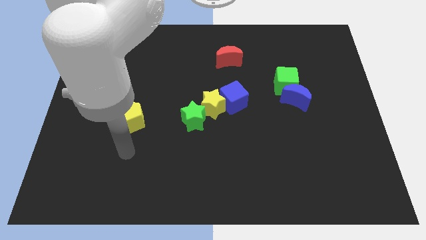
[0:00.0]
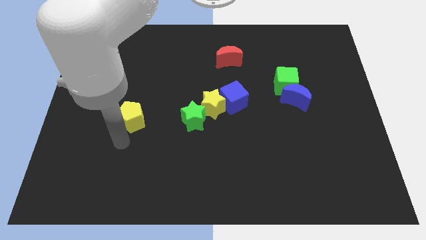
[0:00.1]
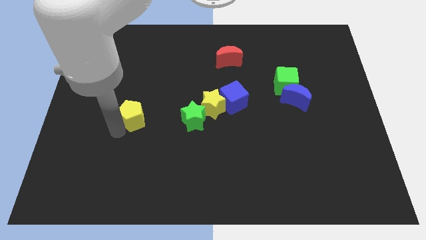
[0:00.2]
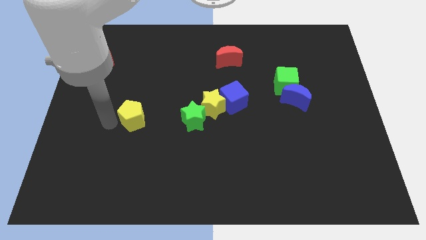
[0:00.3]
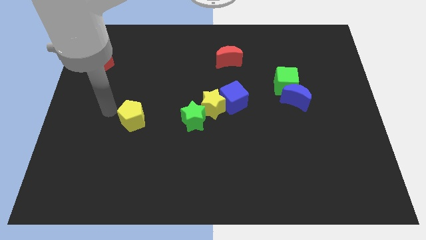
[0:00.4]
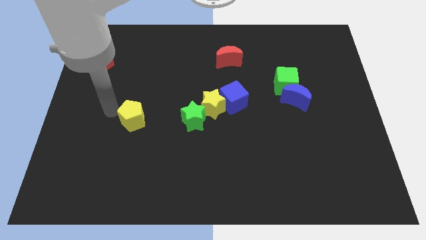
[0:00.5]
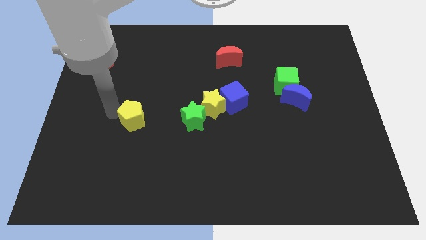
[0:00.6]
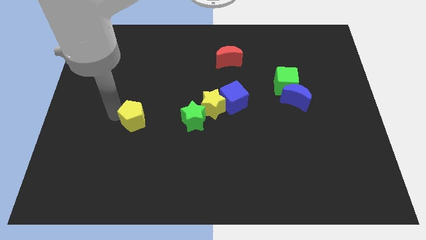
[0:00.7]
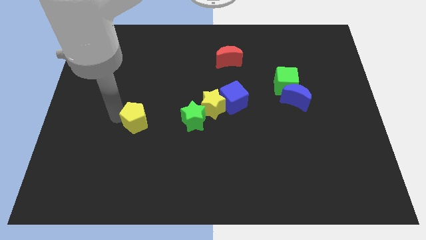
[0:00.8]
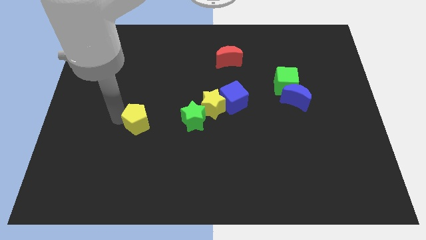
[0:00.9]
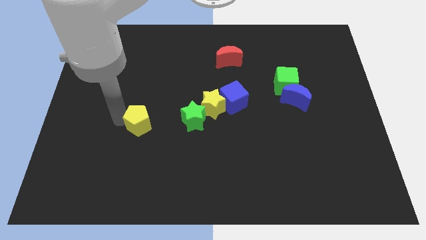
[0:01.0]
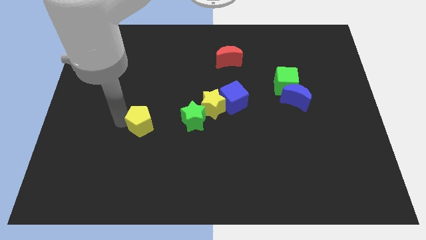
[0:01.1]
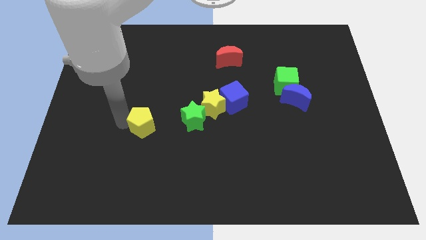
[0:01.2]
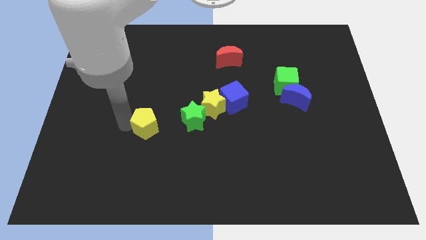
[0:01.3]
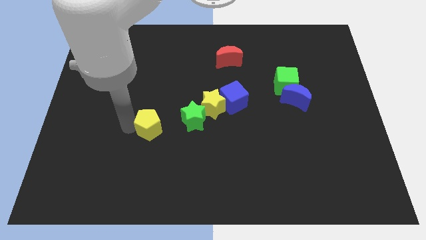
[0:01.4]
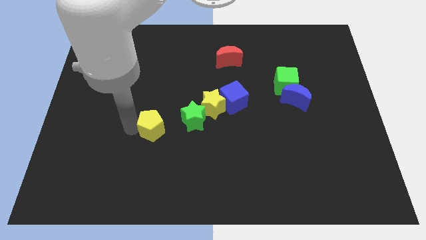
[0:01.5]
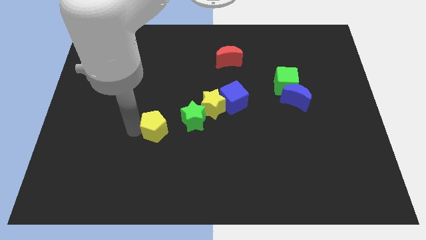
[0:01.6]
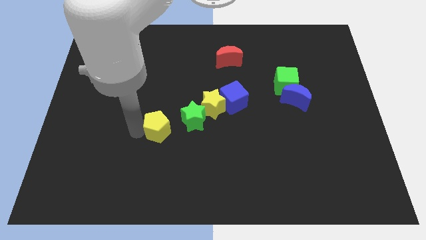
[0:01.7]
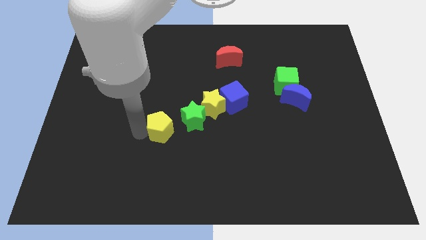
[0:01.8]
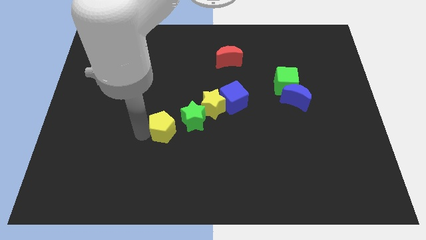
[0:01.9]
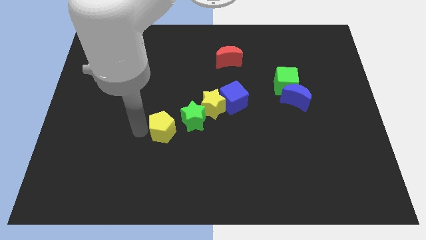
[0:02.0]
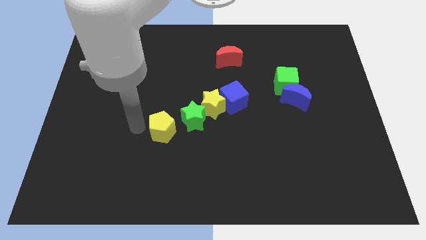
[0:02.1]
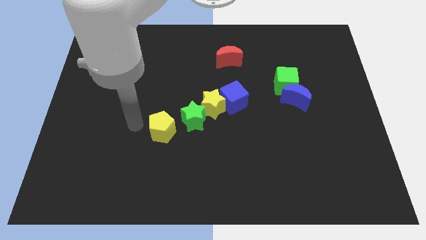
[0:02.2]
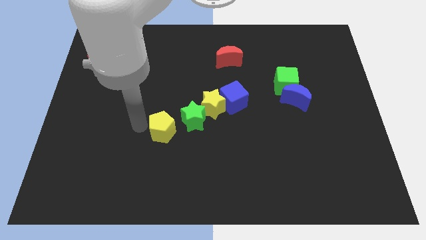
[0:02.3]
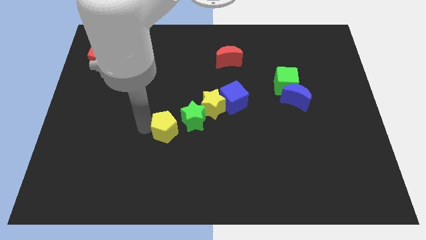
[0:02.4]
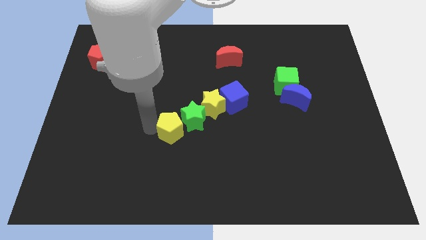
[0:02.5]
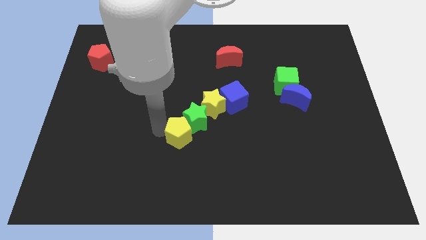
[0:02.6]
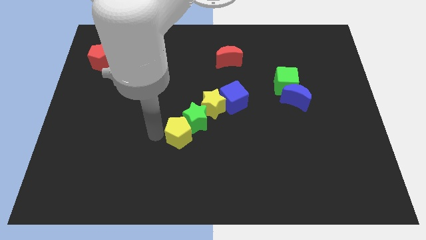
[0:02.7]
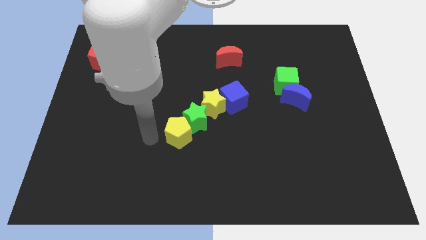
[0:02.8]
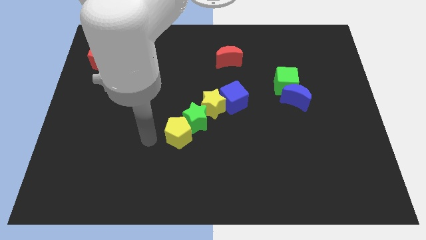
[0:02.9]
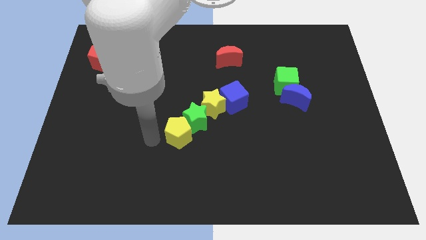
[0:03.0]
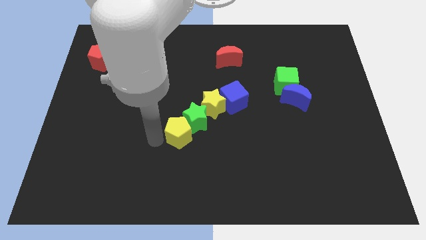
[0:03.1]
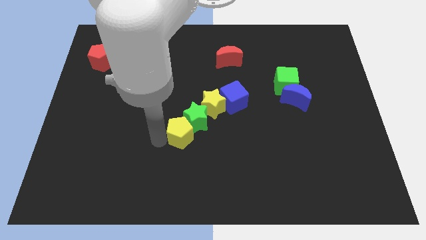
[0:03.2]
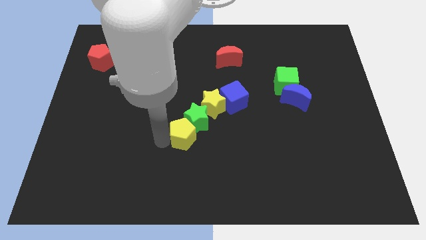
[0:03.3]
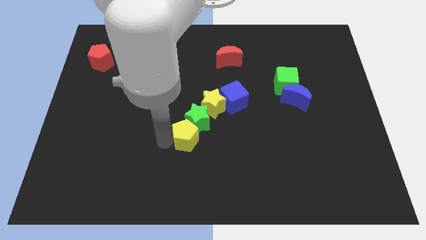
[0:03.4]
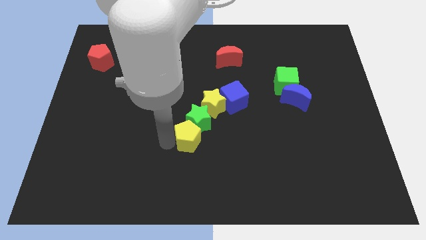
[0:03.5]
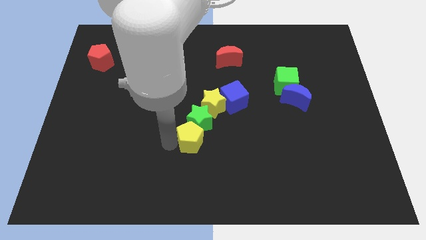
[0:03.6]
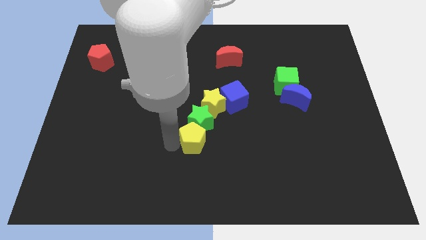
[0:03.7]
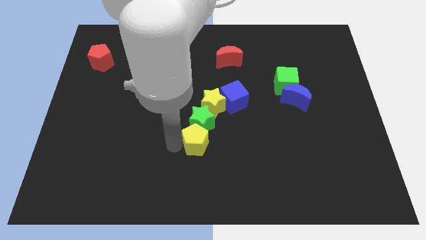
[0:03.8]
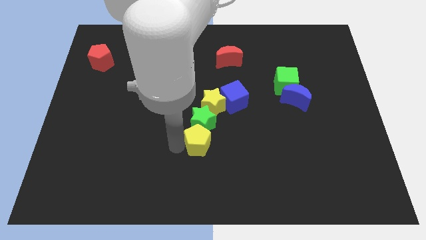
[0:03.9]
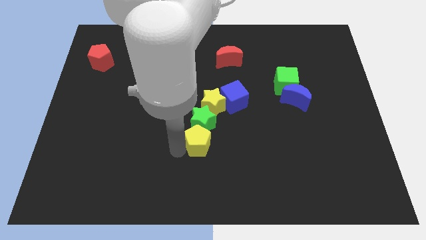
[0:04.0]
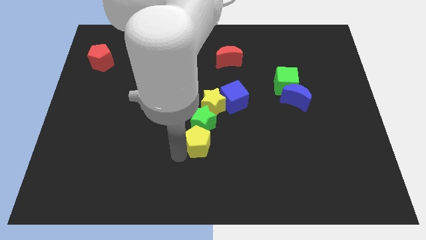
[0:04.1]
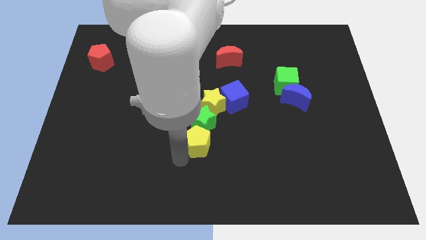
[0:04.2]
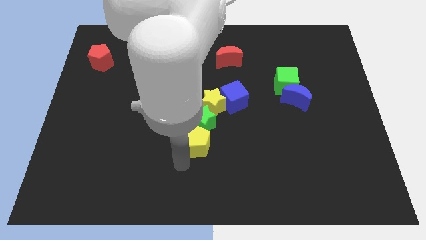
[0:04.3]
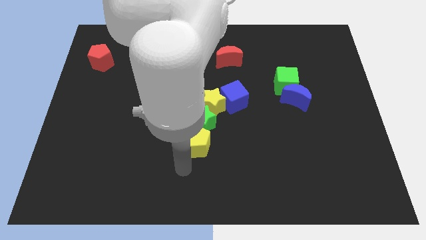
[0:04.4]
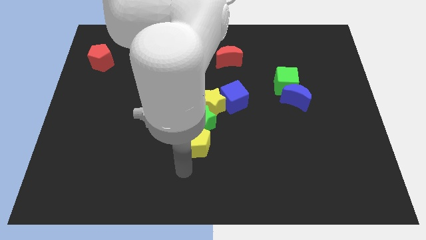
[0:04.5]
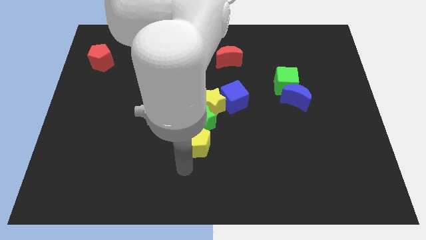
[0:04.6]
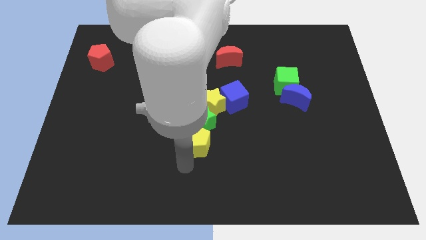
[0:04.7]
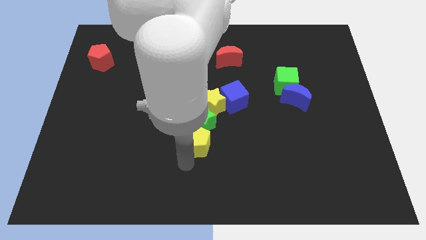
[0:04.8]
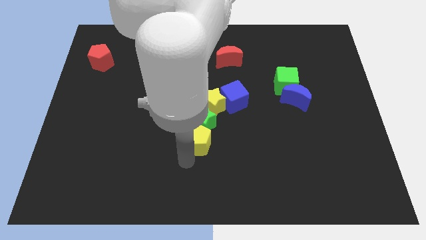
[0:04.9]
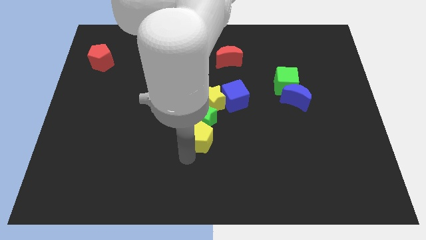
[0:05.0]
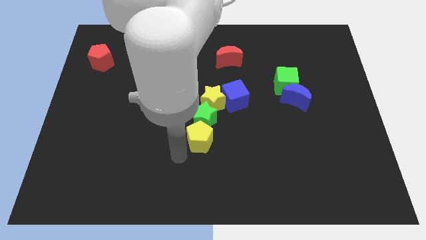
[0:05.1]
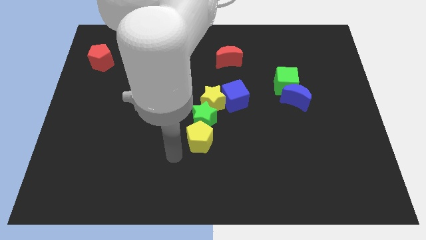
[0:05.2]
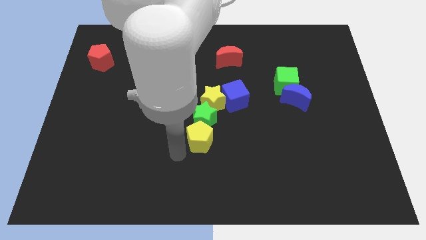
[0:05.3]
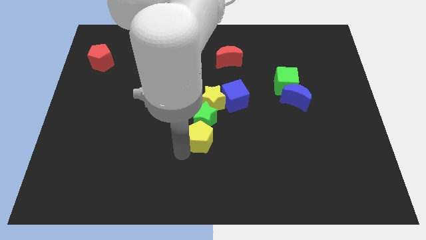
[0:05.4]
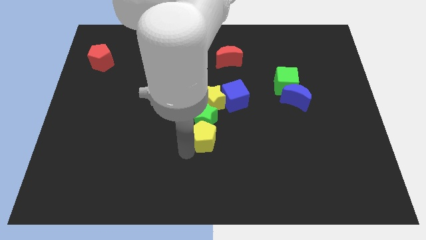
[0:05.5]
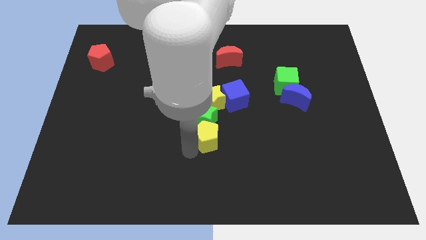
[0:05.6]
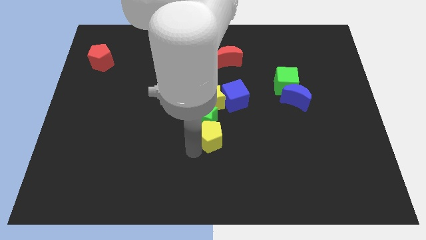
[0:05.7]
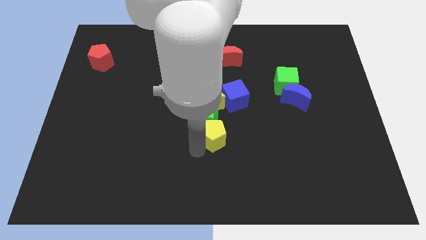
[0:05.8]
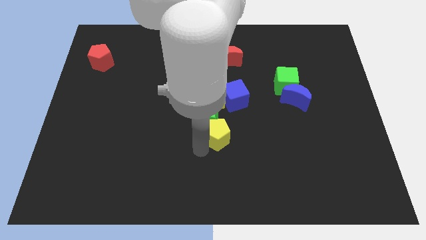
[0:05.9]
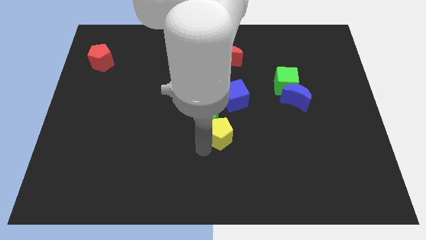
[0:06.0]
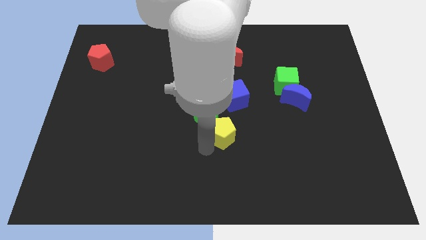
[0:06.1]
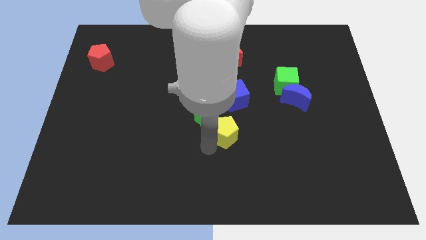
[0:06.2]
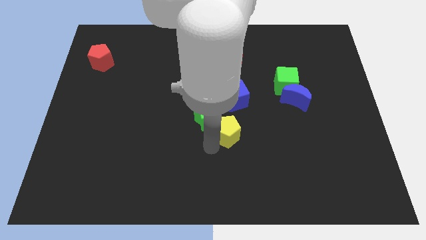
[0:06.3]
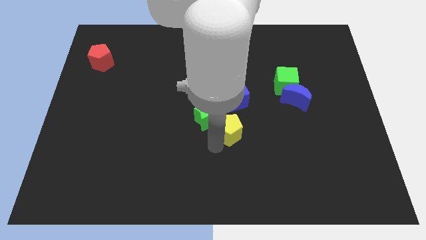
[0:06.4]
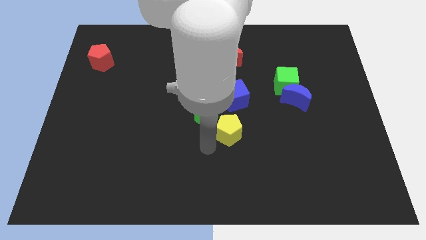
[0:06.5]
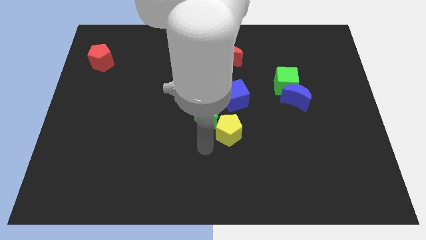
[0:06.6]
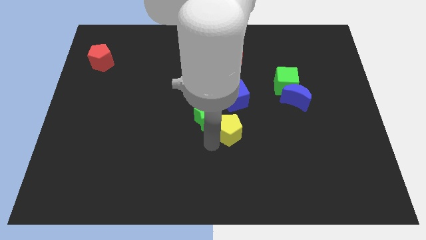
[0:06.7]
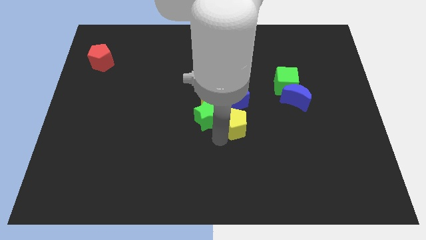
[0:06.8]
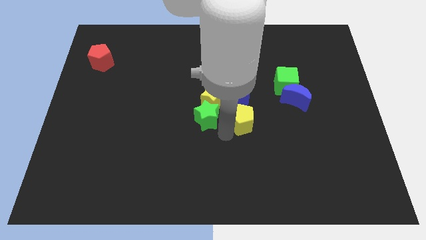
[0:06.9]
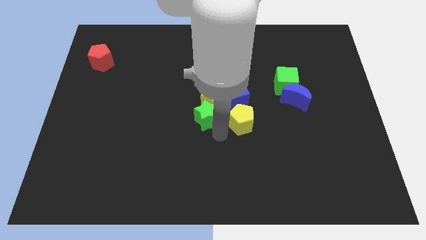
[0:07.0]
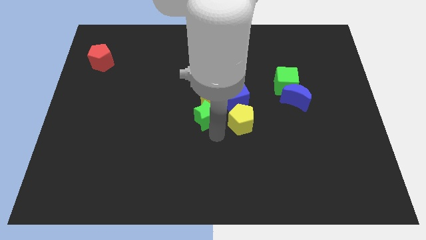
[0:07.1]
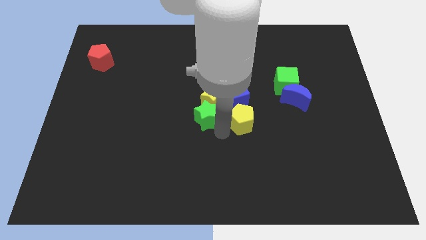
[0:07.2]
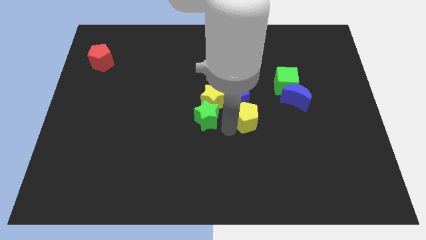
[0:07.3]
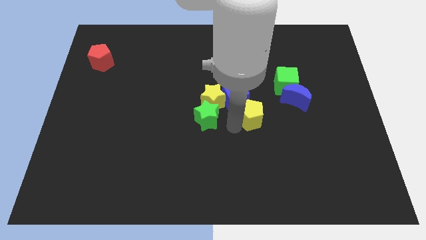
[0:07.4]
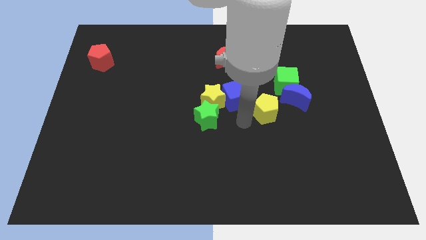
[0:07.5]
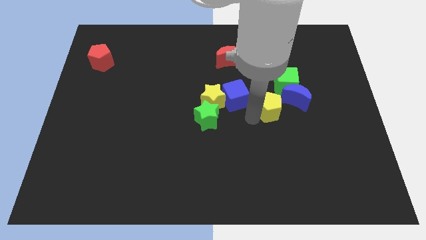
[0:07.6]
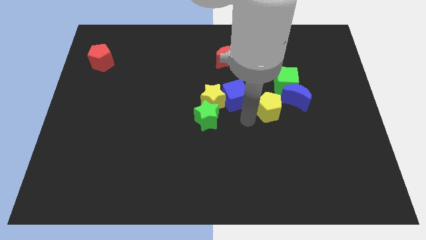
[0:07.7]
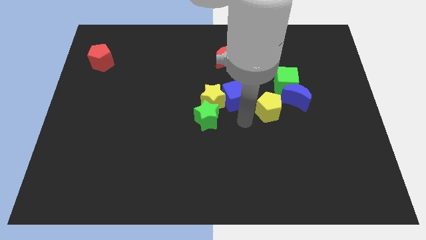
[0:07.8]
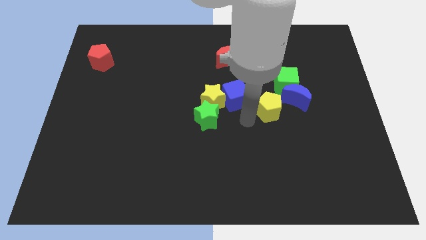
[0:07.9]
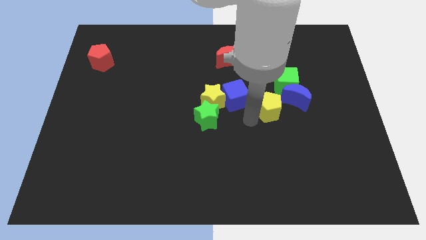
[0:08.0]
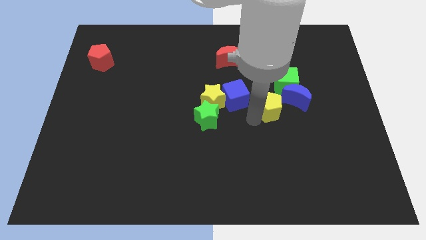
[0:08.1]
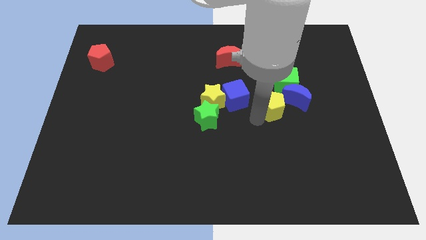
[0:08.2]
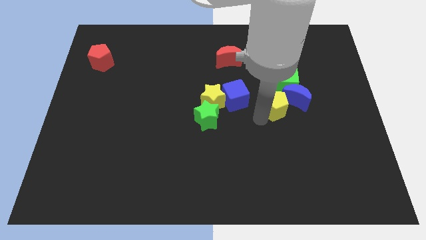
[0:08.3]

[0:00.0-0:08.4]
slide the yellow pentagon towards the blue moon

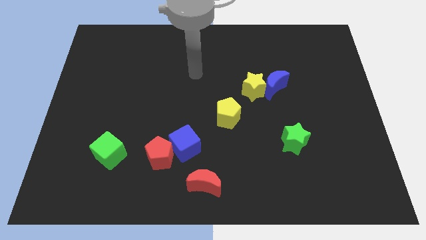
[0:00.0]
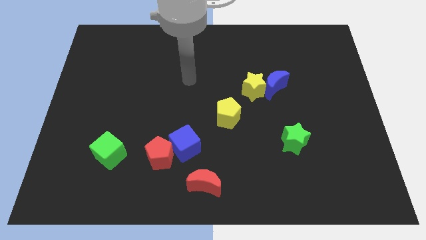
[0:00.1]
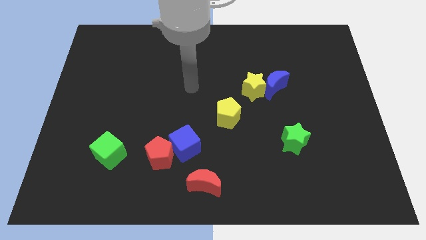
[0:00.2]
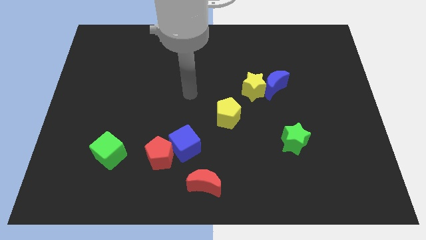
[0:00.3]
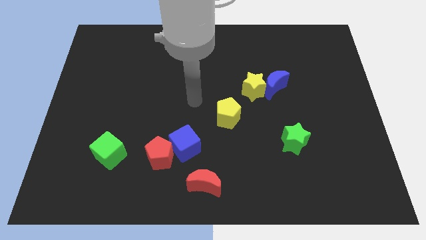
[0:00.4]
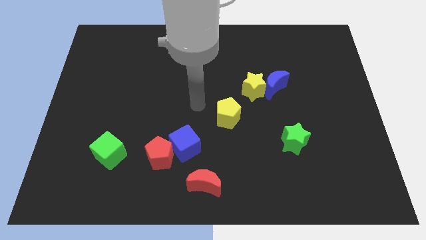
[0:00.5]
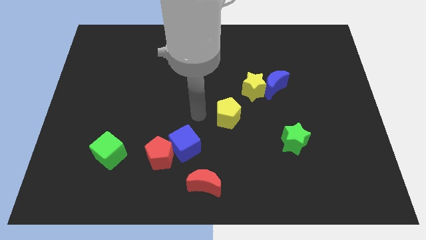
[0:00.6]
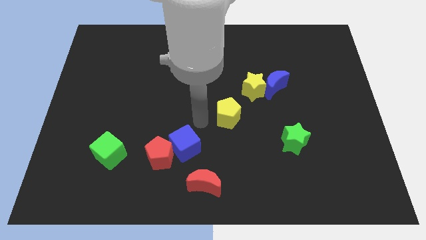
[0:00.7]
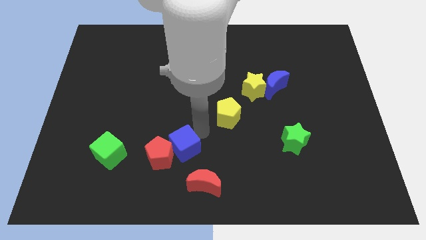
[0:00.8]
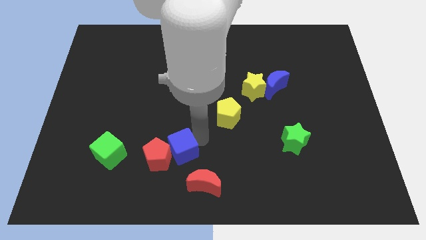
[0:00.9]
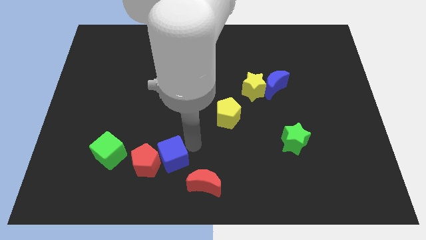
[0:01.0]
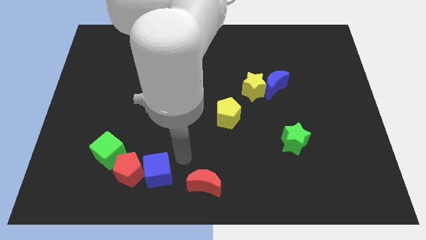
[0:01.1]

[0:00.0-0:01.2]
push the red pentagon towards the green cube
